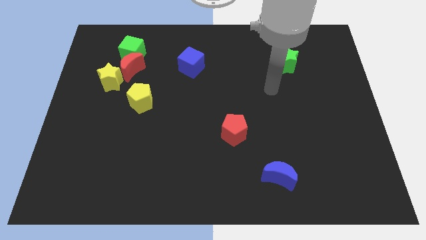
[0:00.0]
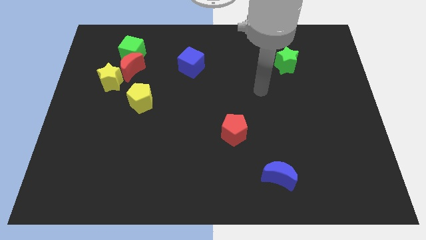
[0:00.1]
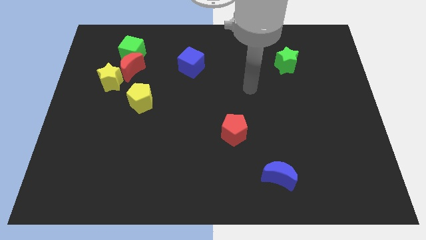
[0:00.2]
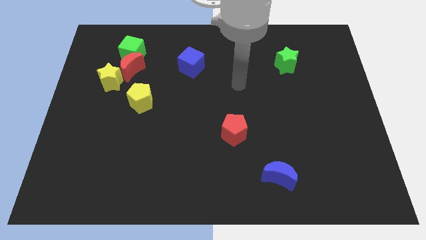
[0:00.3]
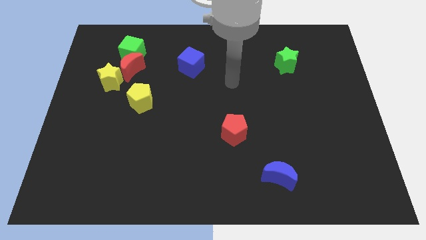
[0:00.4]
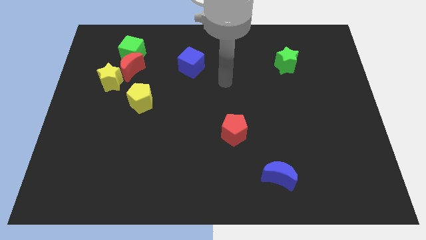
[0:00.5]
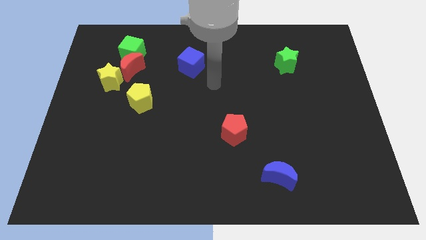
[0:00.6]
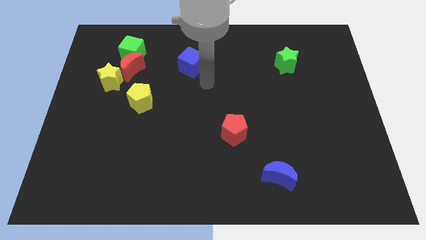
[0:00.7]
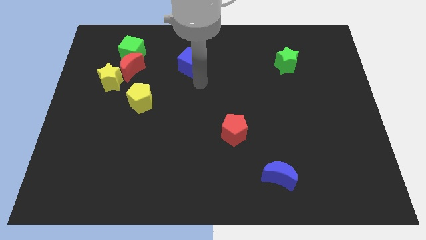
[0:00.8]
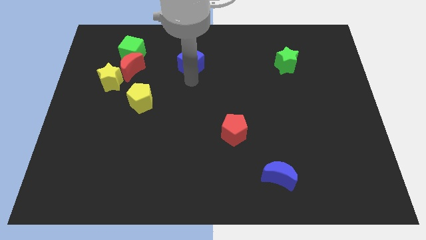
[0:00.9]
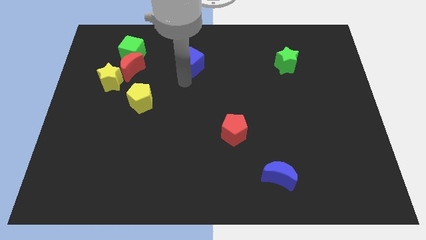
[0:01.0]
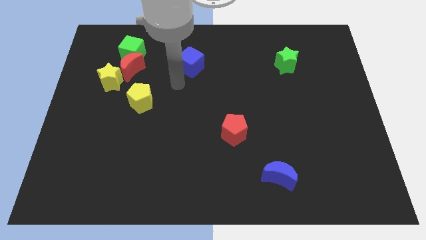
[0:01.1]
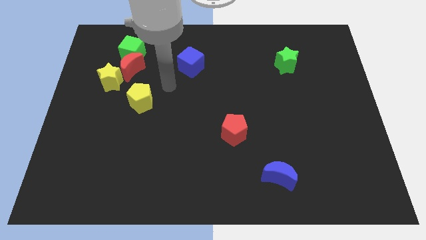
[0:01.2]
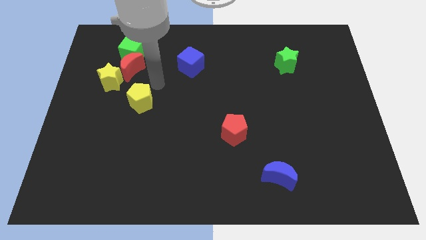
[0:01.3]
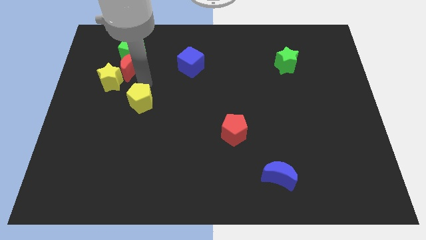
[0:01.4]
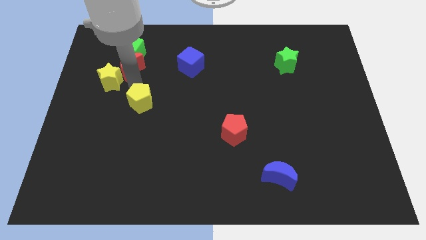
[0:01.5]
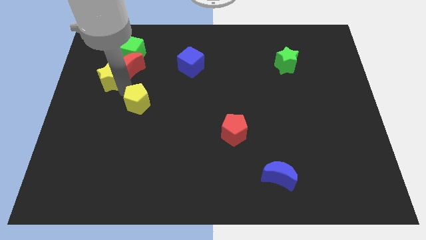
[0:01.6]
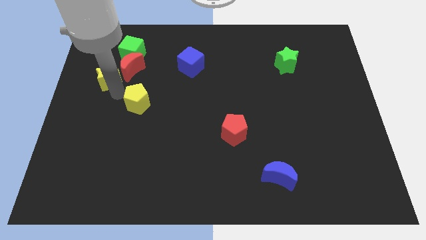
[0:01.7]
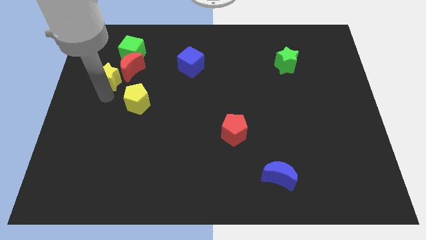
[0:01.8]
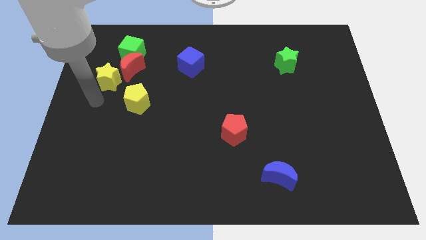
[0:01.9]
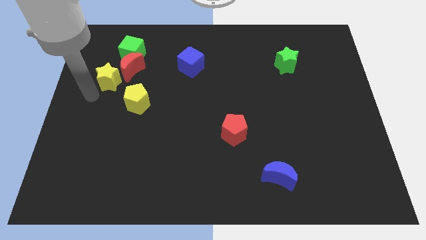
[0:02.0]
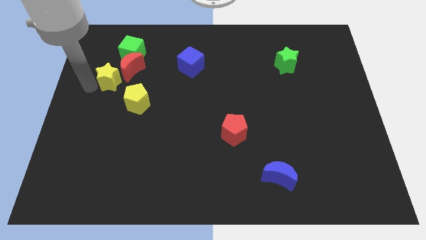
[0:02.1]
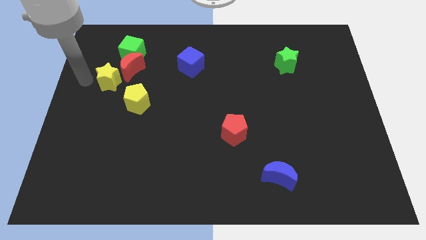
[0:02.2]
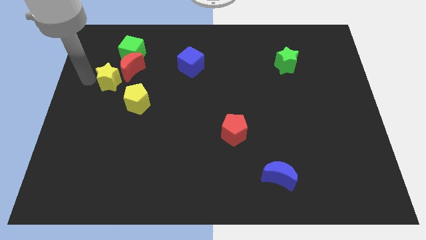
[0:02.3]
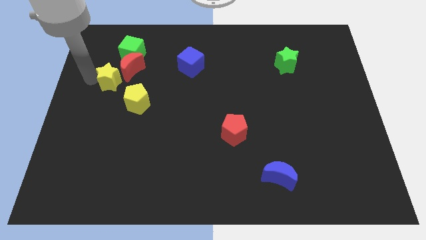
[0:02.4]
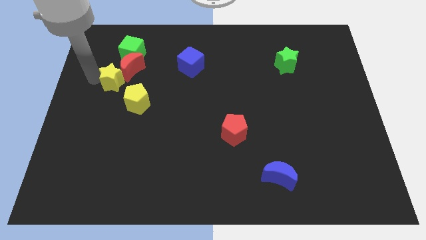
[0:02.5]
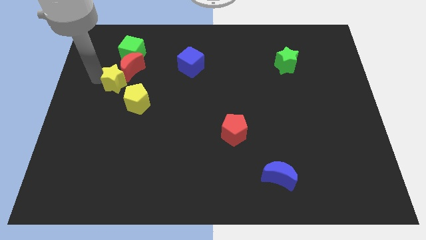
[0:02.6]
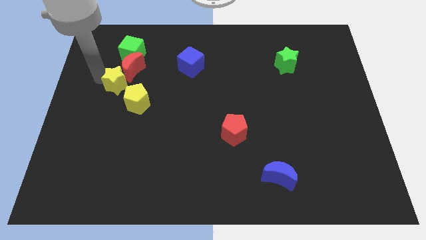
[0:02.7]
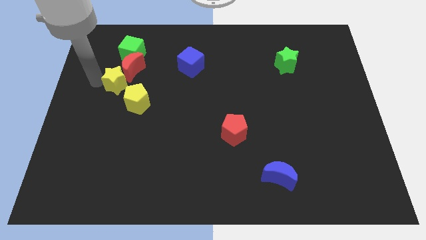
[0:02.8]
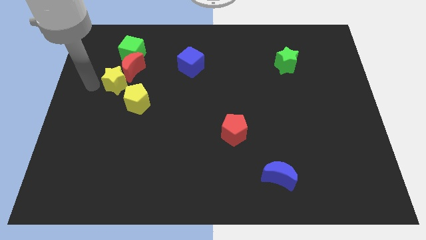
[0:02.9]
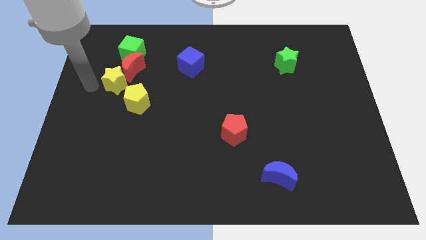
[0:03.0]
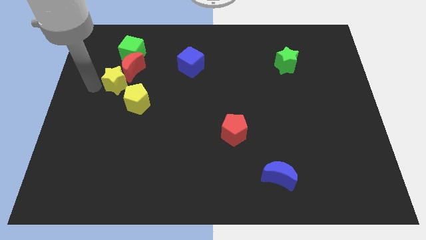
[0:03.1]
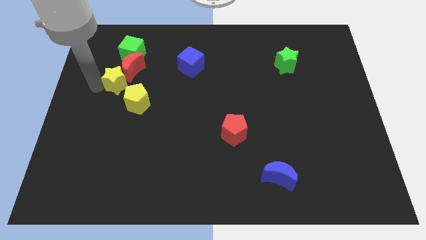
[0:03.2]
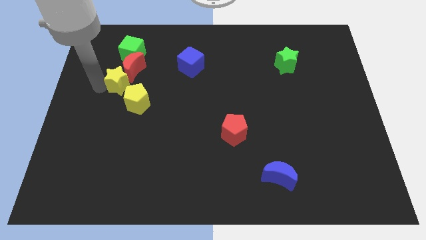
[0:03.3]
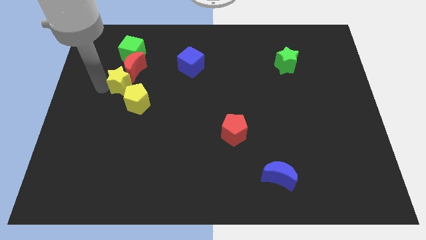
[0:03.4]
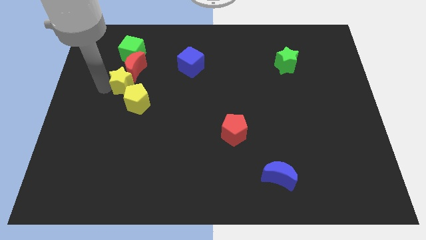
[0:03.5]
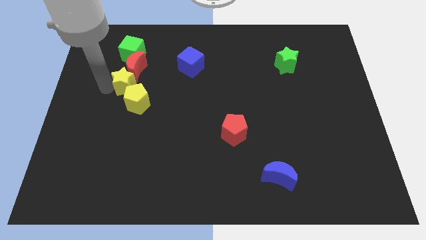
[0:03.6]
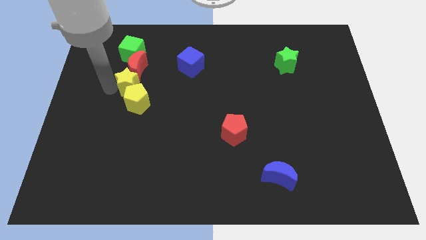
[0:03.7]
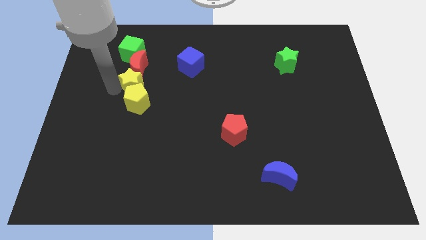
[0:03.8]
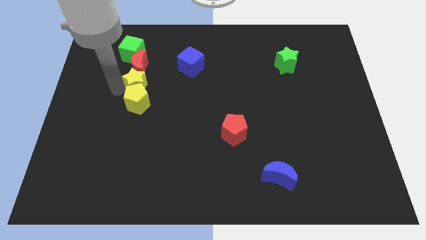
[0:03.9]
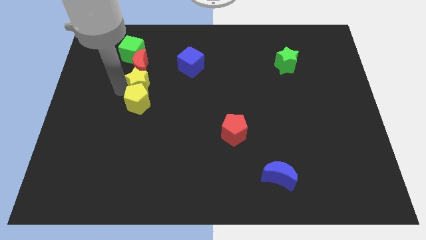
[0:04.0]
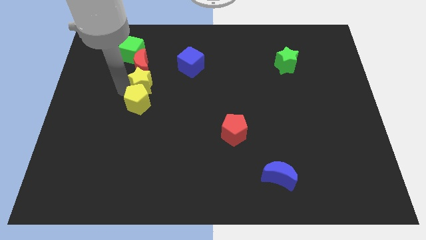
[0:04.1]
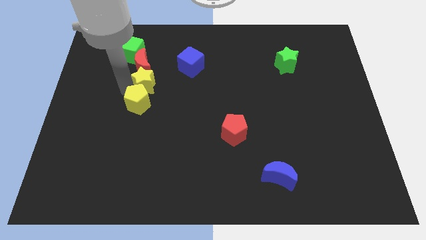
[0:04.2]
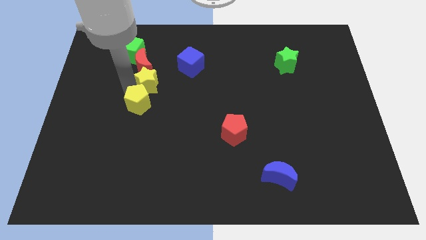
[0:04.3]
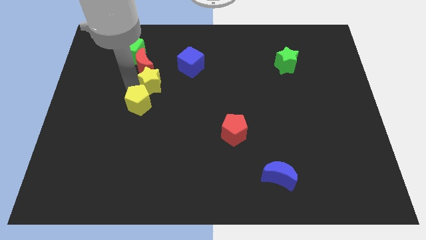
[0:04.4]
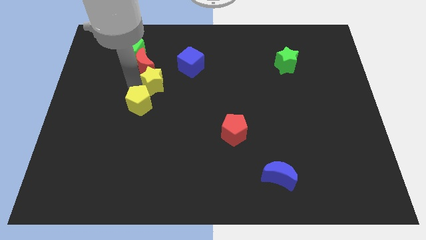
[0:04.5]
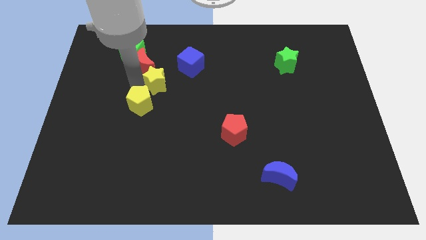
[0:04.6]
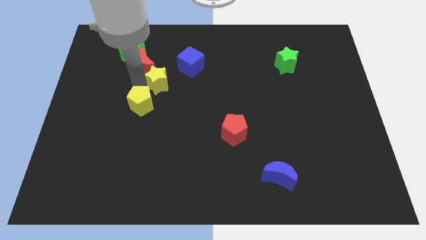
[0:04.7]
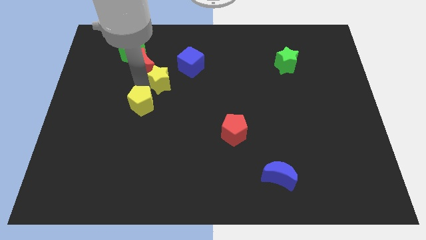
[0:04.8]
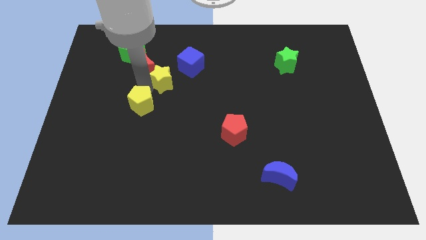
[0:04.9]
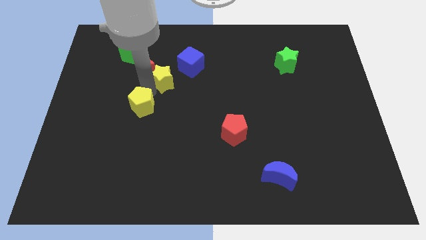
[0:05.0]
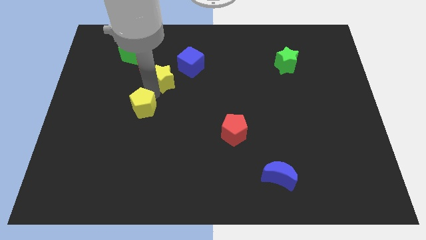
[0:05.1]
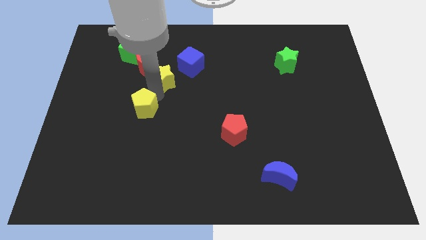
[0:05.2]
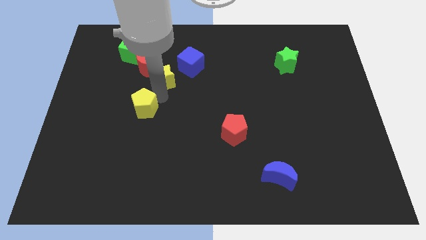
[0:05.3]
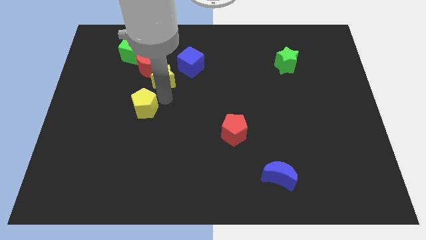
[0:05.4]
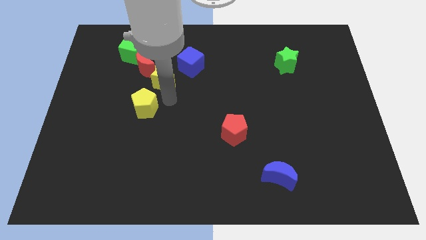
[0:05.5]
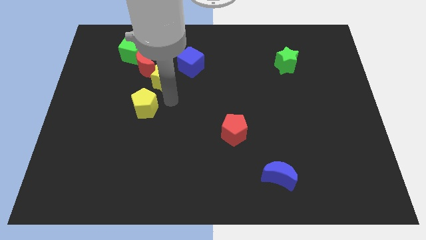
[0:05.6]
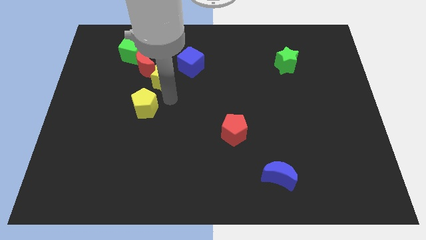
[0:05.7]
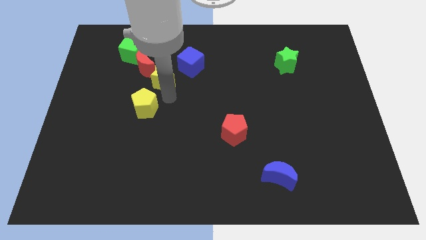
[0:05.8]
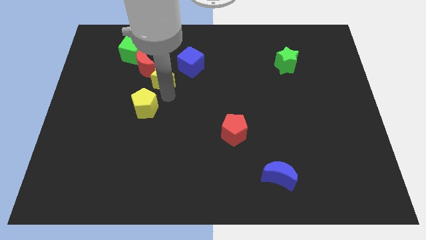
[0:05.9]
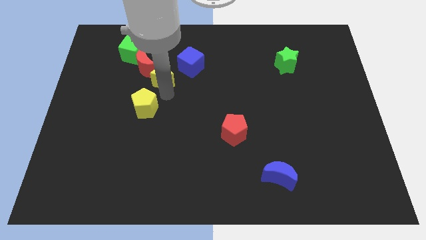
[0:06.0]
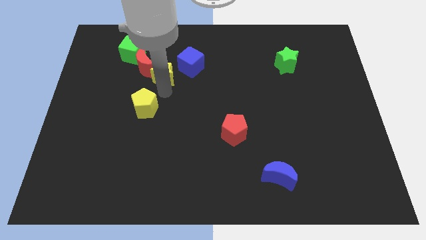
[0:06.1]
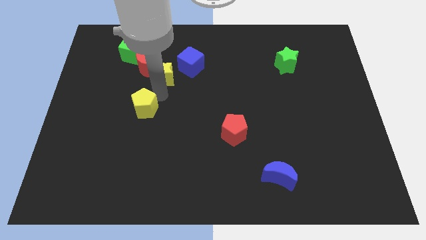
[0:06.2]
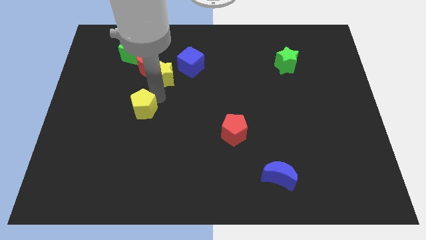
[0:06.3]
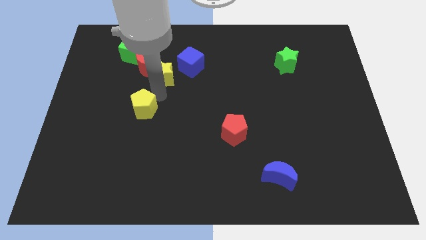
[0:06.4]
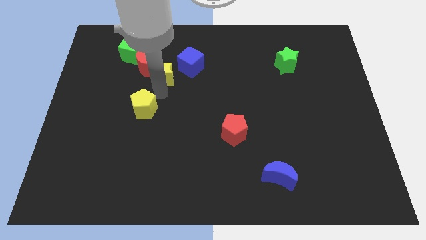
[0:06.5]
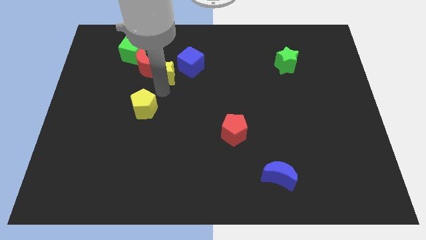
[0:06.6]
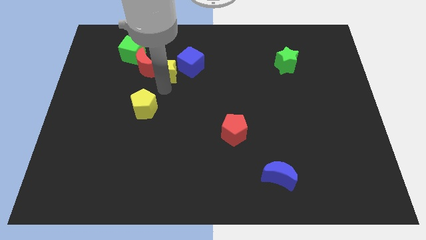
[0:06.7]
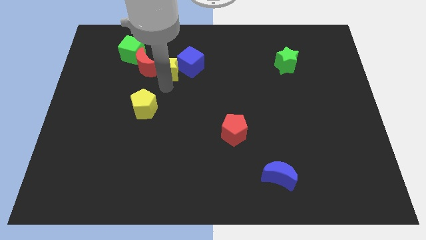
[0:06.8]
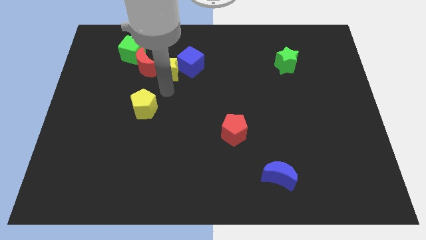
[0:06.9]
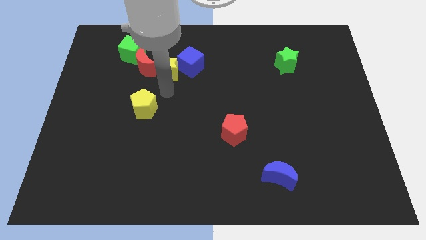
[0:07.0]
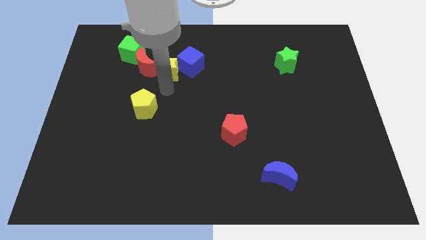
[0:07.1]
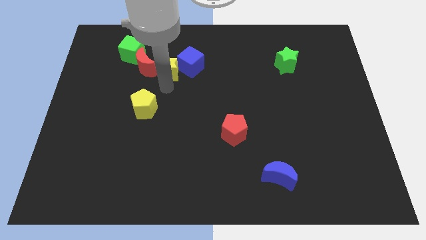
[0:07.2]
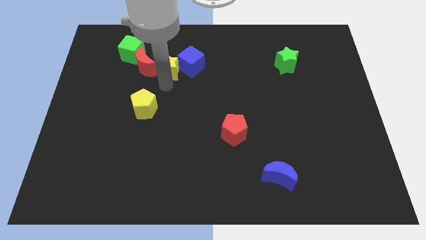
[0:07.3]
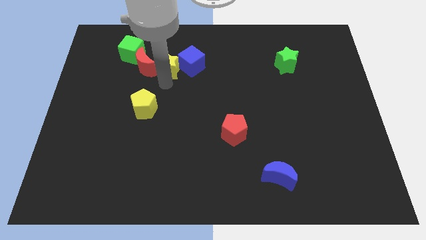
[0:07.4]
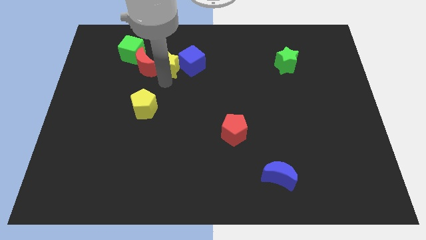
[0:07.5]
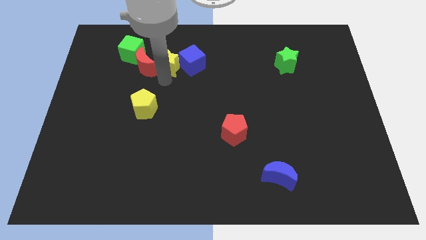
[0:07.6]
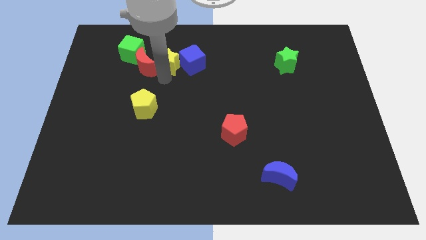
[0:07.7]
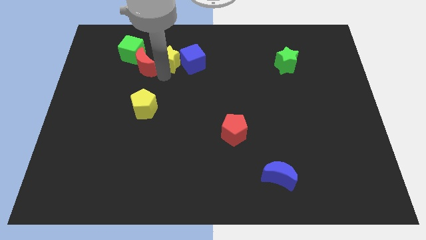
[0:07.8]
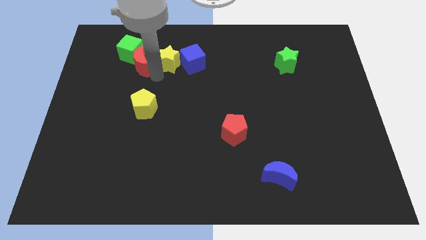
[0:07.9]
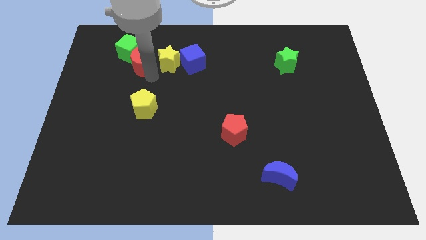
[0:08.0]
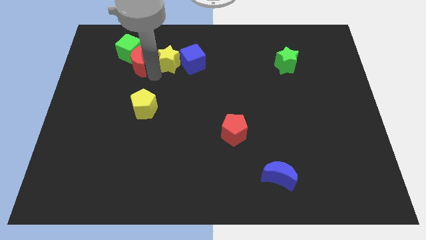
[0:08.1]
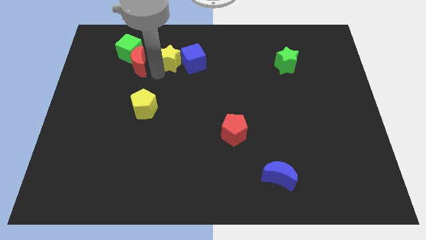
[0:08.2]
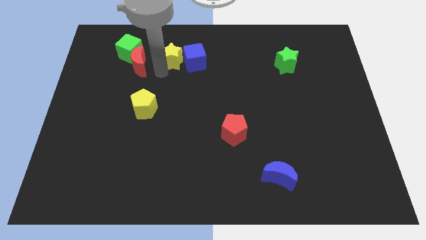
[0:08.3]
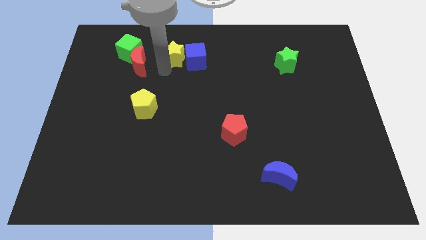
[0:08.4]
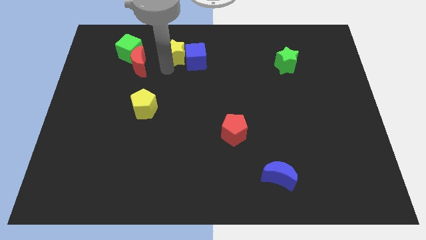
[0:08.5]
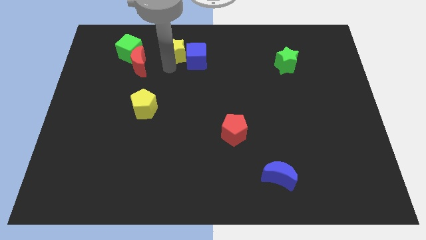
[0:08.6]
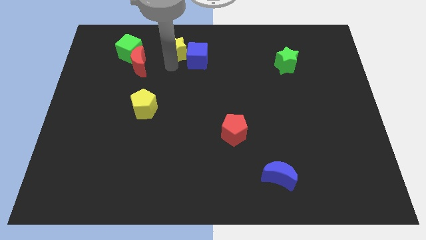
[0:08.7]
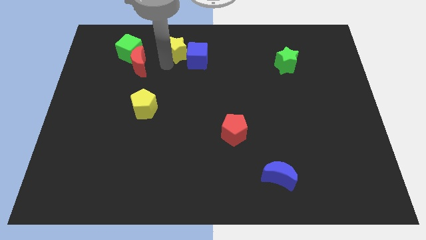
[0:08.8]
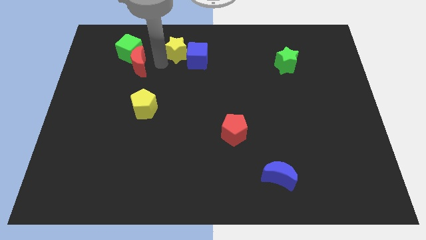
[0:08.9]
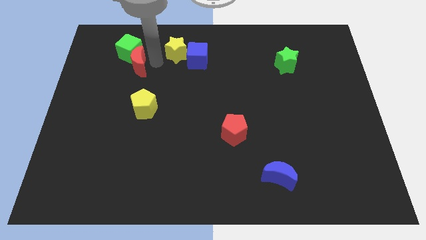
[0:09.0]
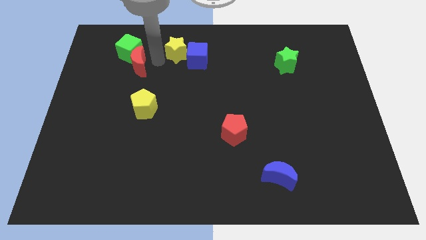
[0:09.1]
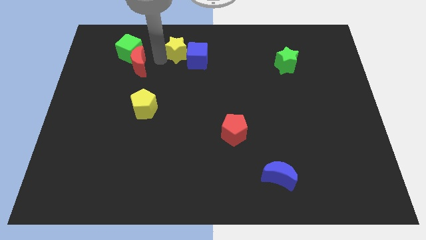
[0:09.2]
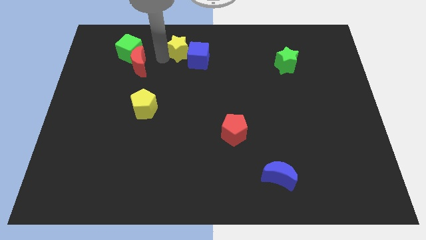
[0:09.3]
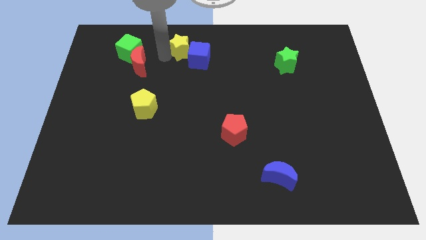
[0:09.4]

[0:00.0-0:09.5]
put the yellow star to the towards your base
